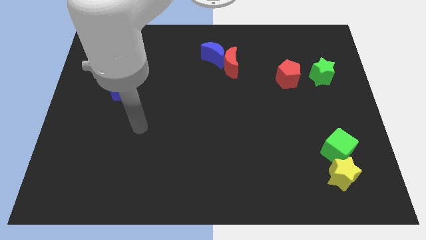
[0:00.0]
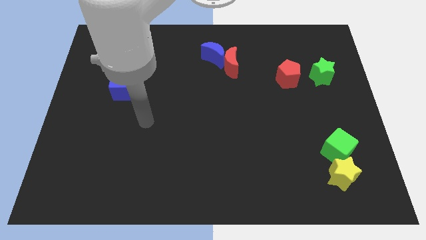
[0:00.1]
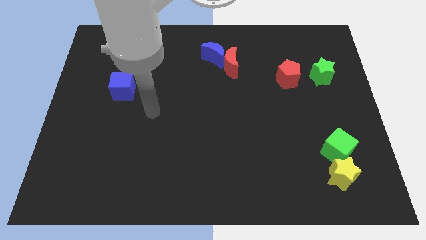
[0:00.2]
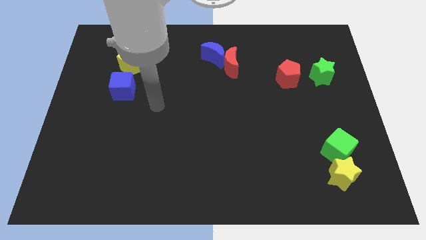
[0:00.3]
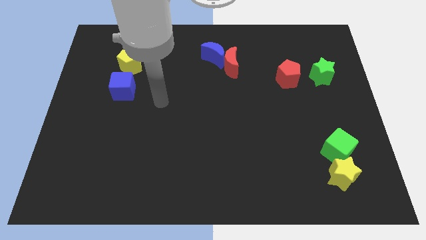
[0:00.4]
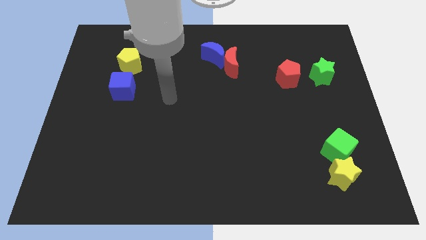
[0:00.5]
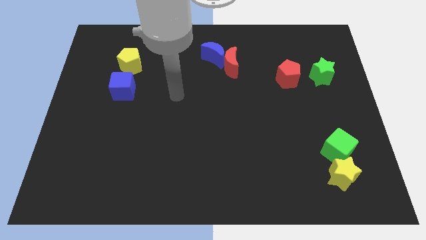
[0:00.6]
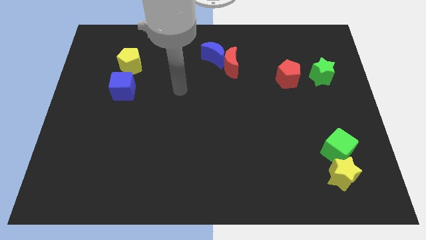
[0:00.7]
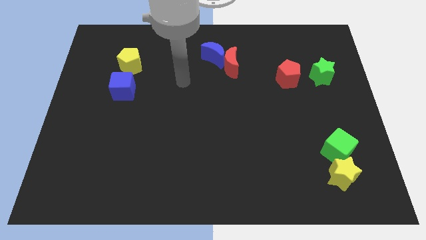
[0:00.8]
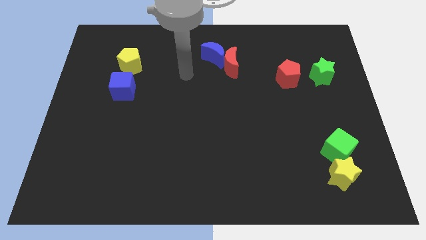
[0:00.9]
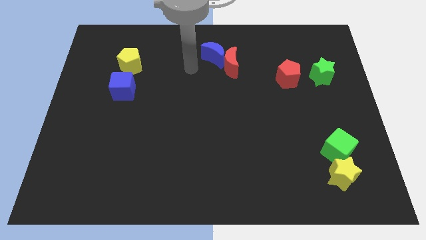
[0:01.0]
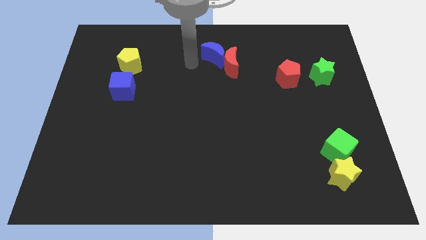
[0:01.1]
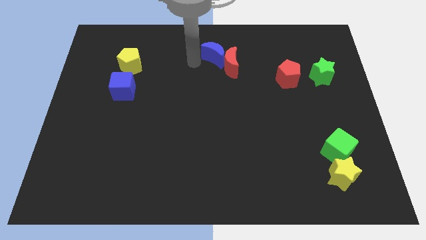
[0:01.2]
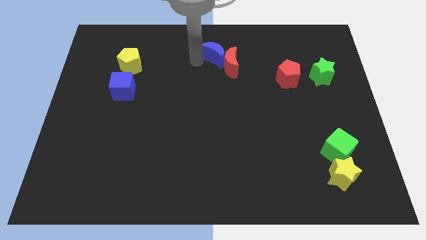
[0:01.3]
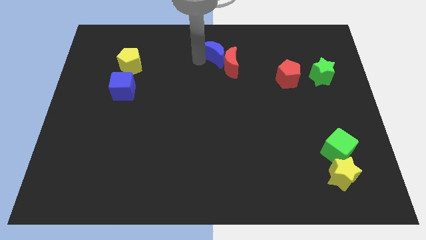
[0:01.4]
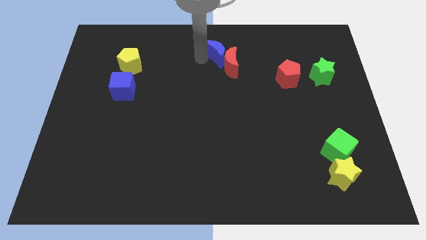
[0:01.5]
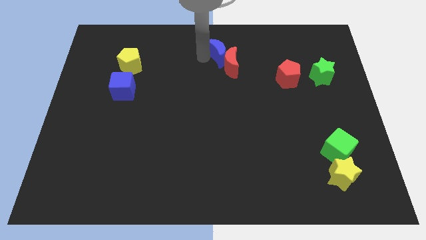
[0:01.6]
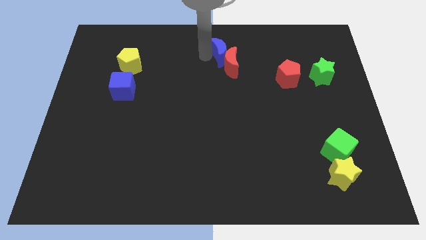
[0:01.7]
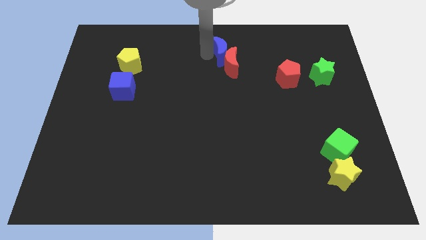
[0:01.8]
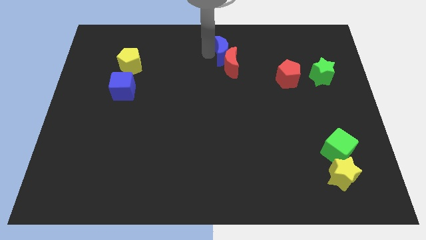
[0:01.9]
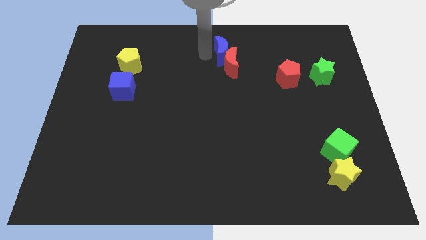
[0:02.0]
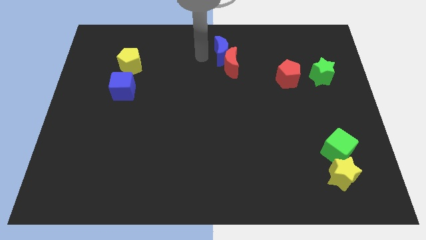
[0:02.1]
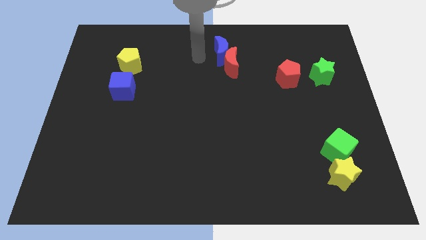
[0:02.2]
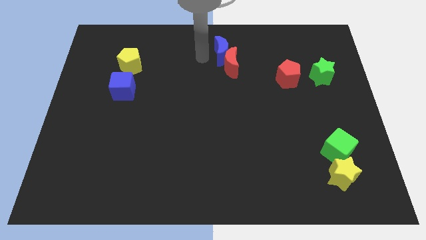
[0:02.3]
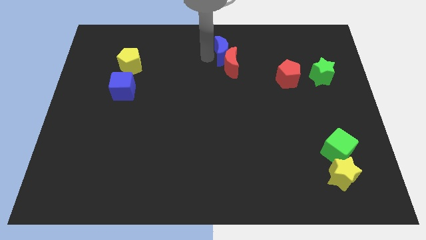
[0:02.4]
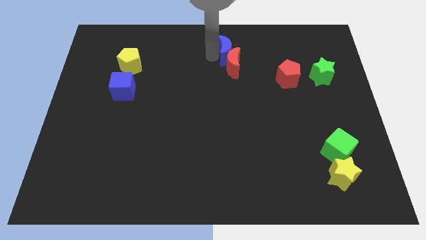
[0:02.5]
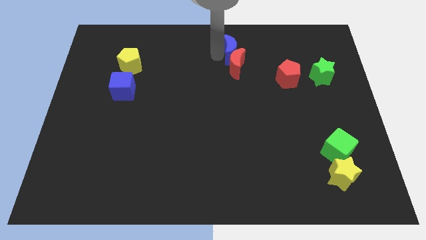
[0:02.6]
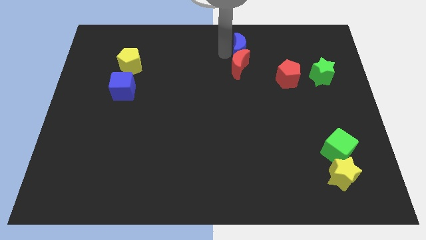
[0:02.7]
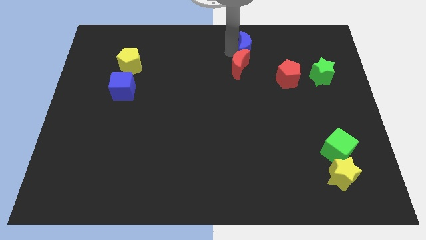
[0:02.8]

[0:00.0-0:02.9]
move the blue moon to the right somewhat

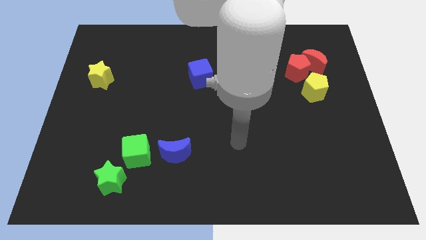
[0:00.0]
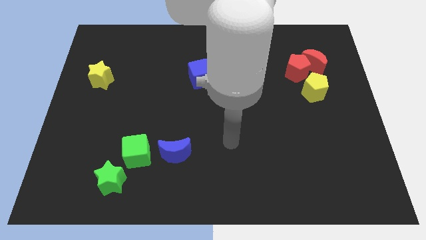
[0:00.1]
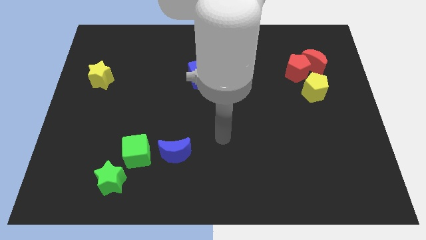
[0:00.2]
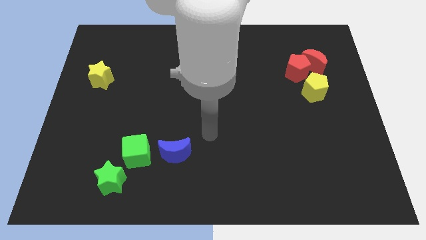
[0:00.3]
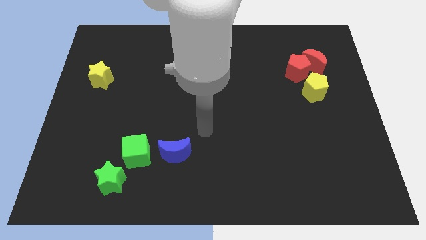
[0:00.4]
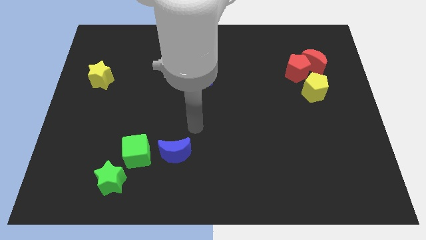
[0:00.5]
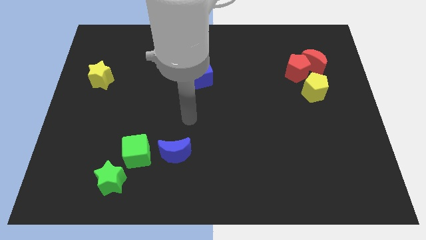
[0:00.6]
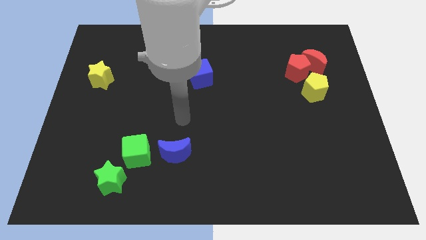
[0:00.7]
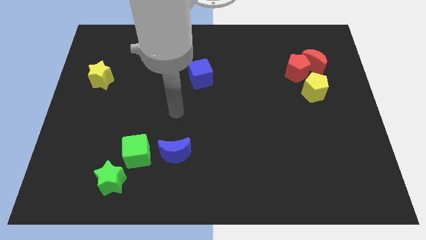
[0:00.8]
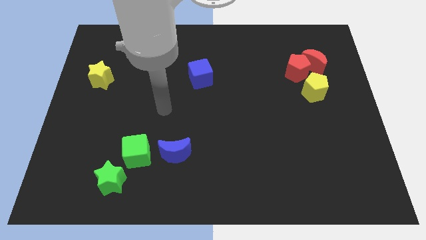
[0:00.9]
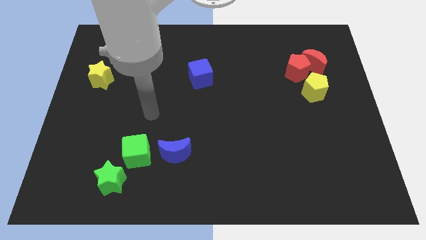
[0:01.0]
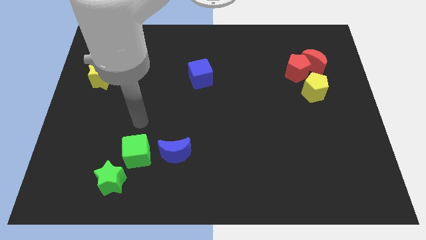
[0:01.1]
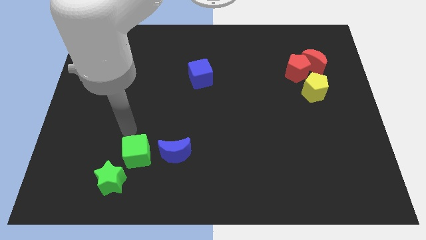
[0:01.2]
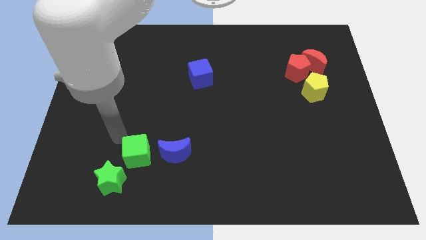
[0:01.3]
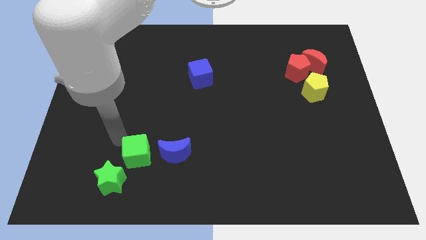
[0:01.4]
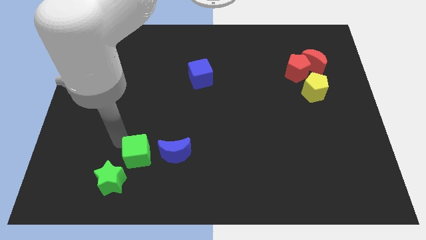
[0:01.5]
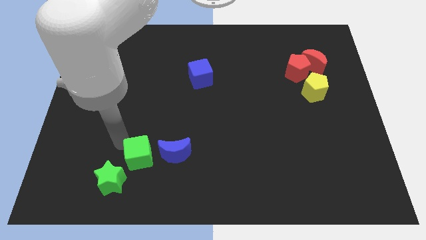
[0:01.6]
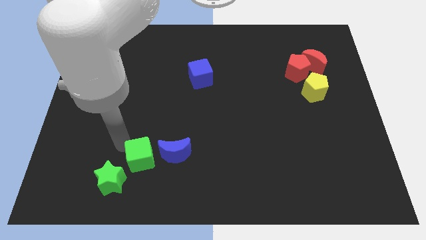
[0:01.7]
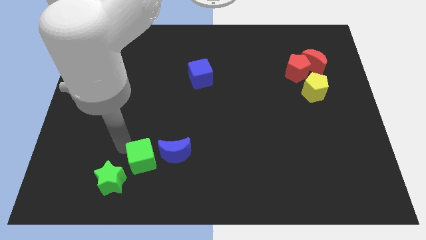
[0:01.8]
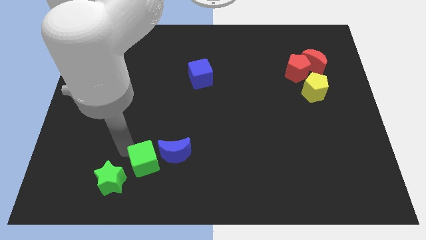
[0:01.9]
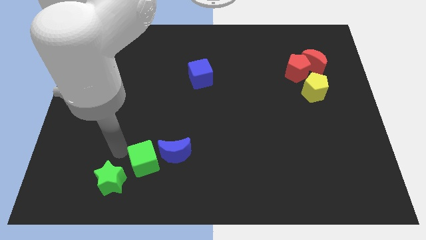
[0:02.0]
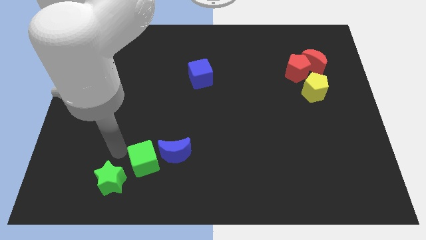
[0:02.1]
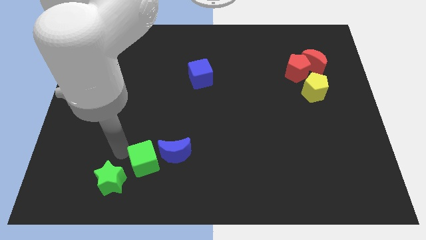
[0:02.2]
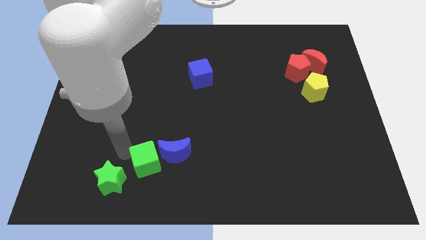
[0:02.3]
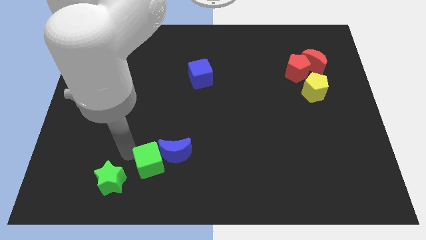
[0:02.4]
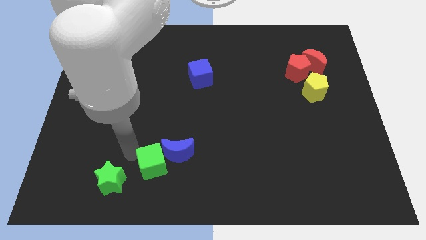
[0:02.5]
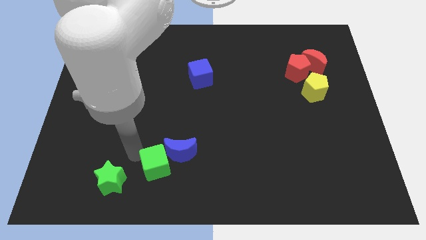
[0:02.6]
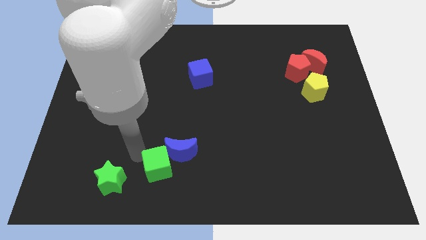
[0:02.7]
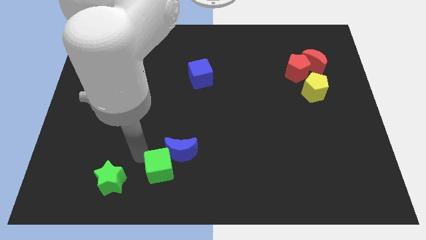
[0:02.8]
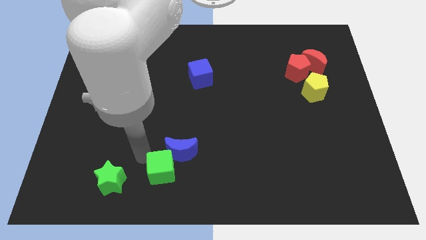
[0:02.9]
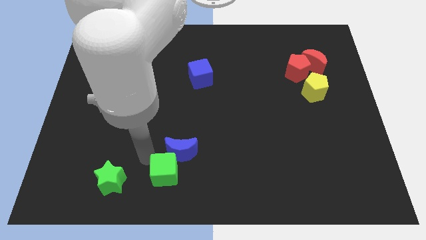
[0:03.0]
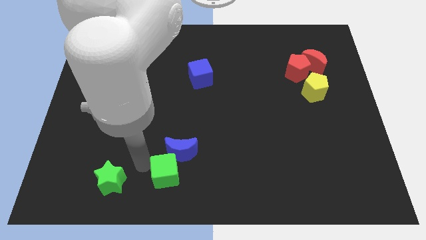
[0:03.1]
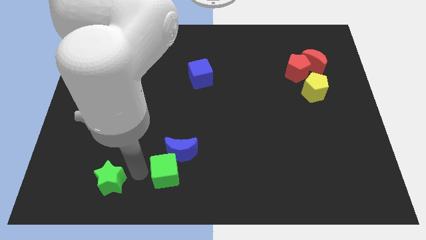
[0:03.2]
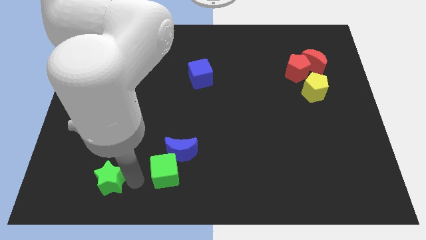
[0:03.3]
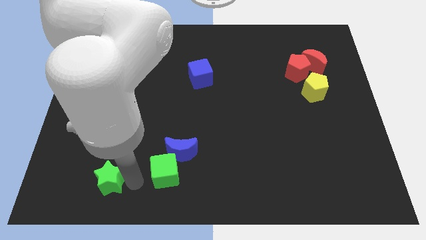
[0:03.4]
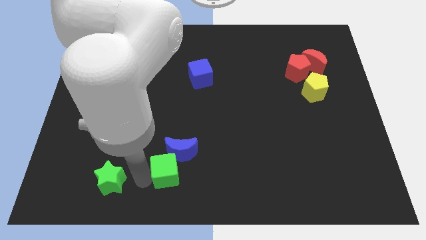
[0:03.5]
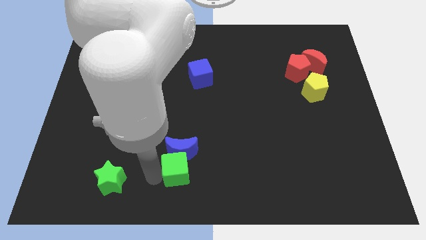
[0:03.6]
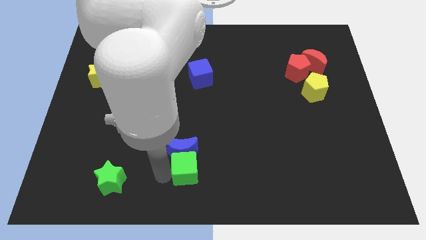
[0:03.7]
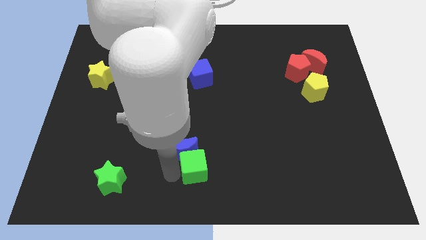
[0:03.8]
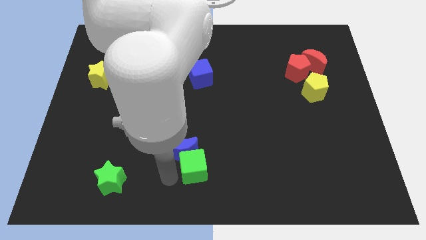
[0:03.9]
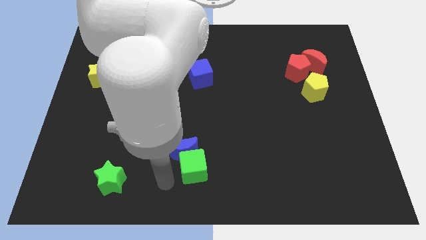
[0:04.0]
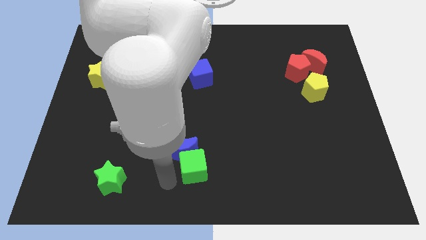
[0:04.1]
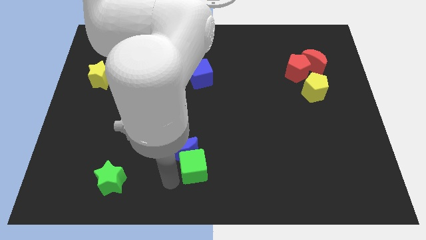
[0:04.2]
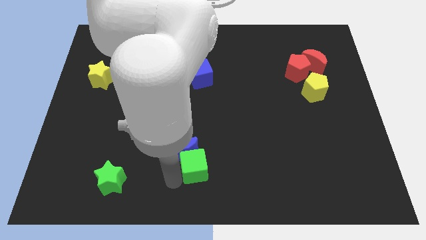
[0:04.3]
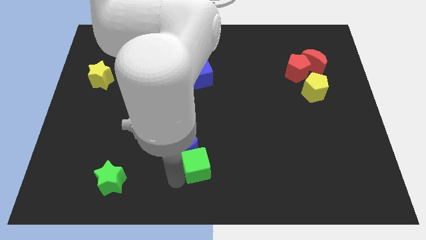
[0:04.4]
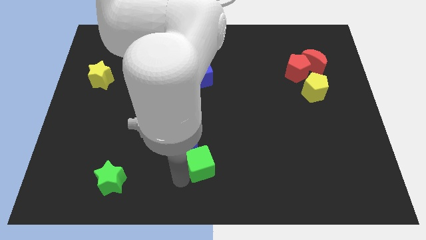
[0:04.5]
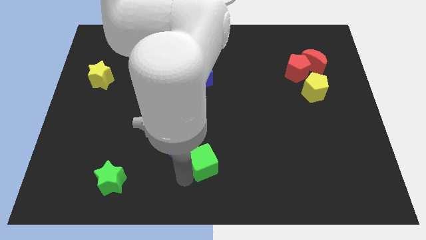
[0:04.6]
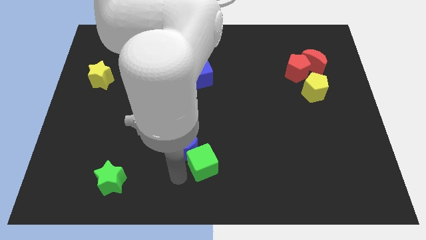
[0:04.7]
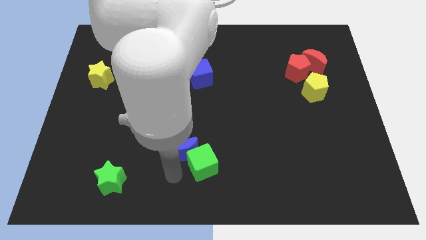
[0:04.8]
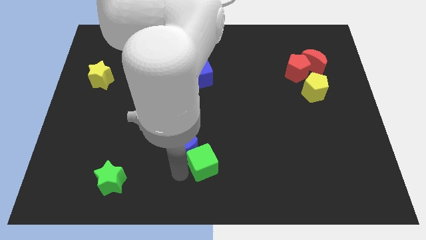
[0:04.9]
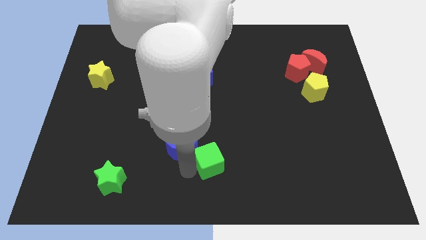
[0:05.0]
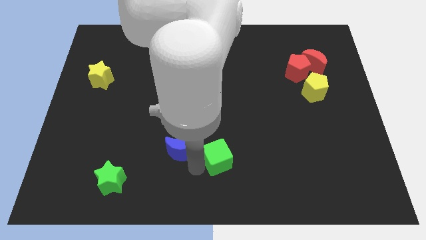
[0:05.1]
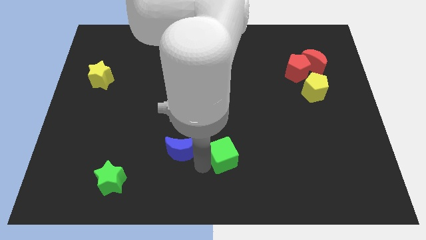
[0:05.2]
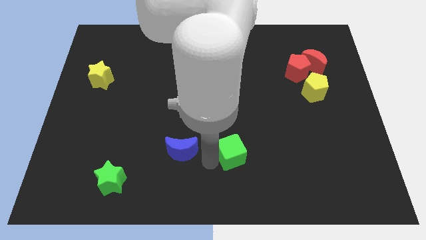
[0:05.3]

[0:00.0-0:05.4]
push the green cube to the right
